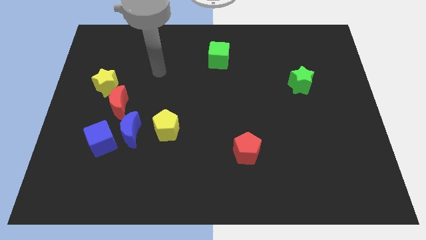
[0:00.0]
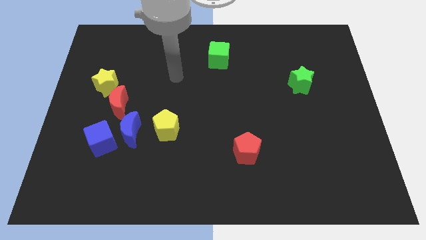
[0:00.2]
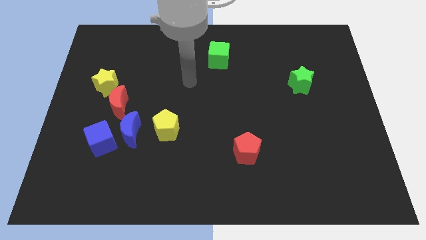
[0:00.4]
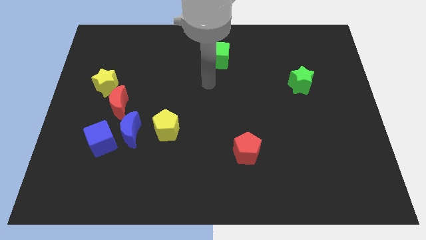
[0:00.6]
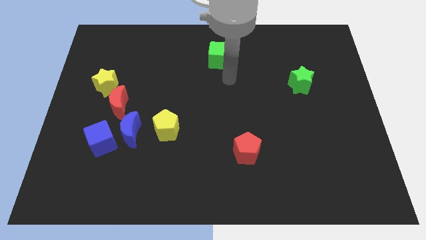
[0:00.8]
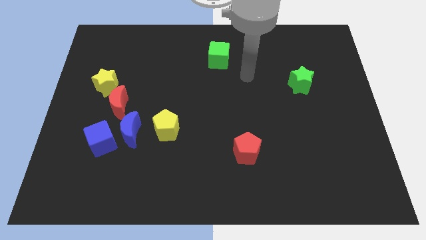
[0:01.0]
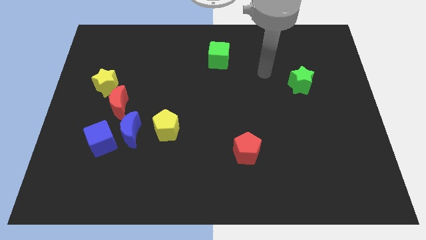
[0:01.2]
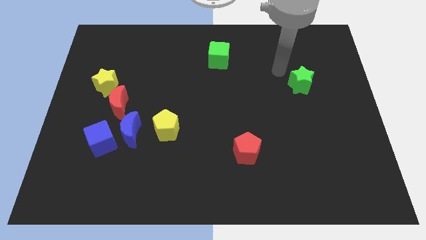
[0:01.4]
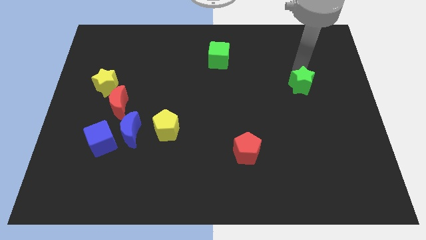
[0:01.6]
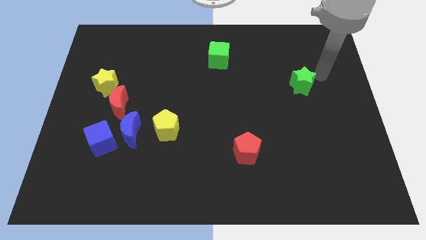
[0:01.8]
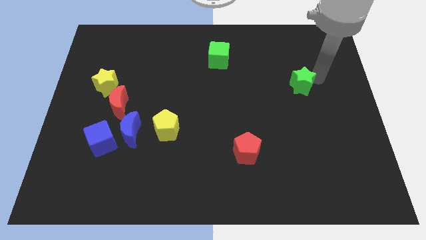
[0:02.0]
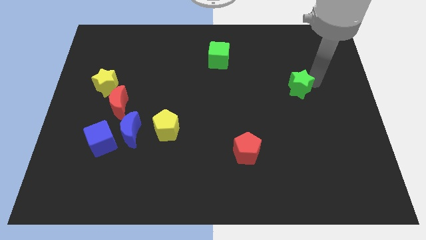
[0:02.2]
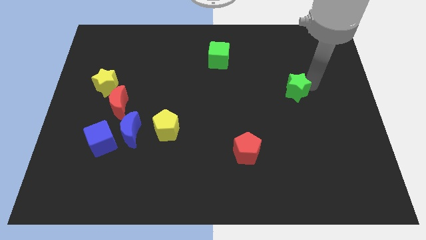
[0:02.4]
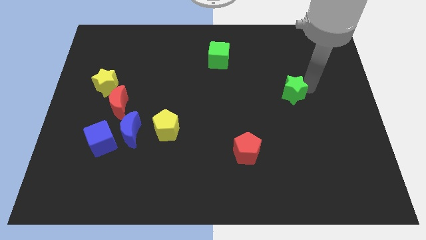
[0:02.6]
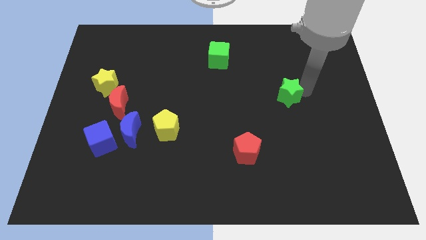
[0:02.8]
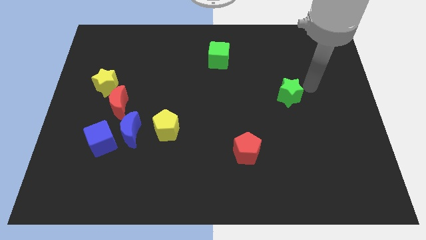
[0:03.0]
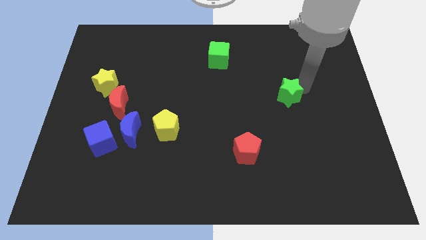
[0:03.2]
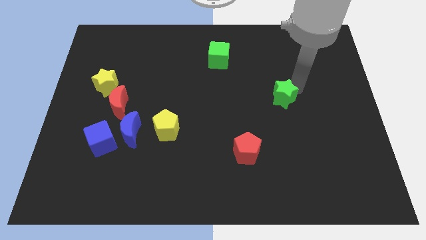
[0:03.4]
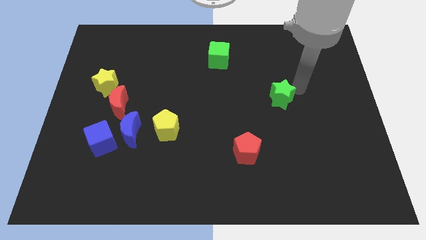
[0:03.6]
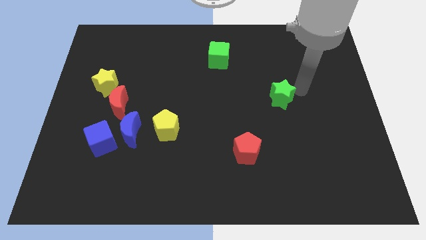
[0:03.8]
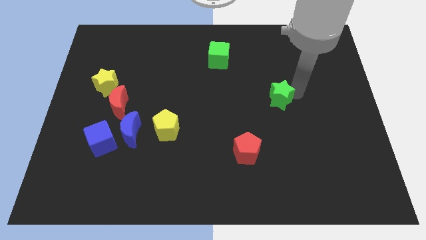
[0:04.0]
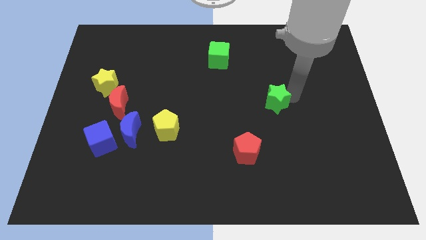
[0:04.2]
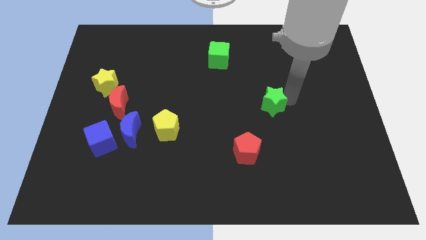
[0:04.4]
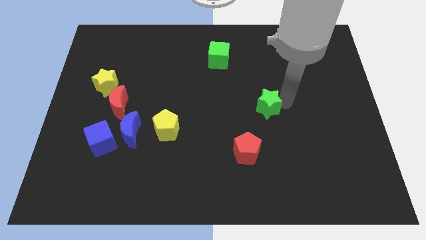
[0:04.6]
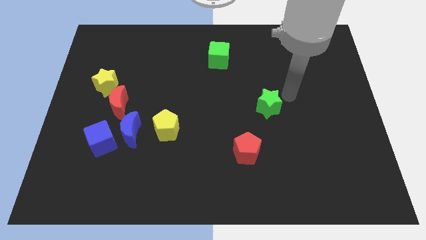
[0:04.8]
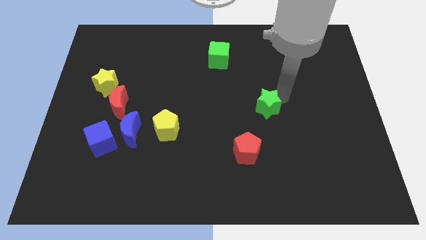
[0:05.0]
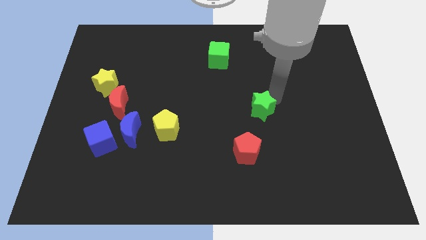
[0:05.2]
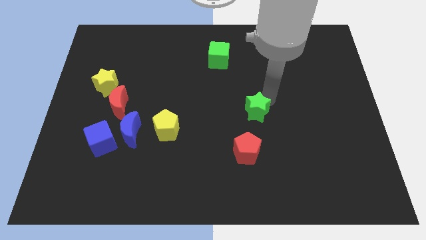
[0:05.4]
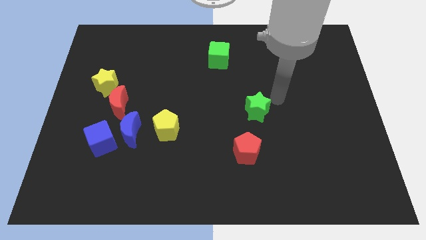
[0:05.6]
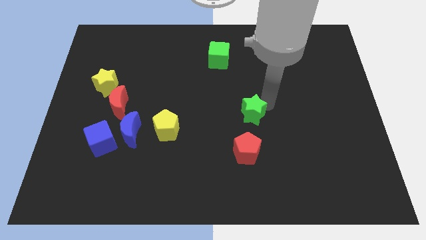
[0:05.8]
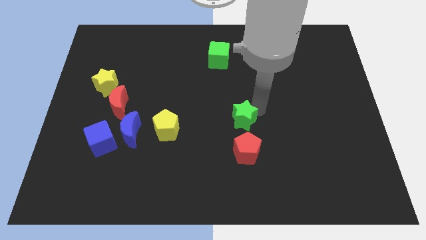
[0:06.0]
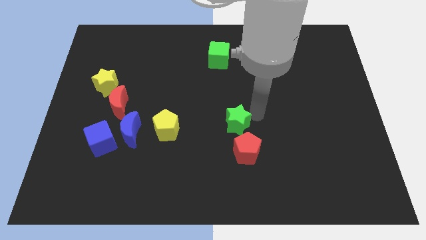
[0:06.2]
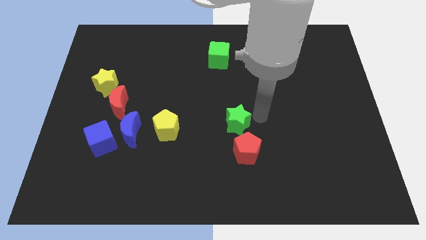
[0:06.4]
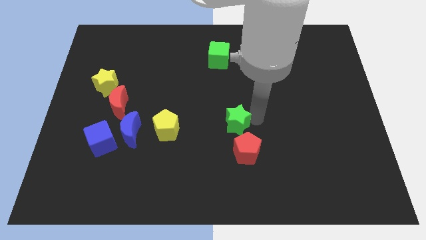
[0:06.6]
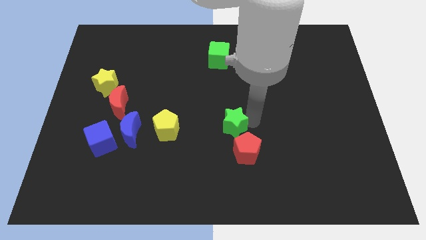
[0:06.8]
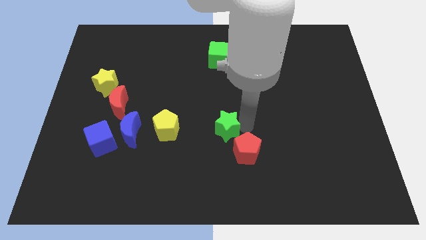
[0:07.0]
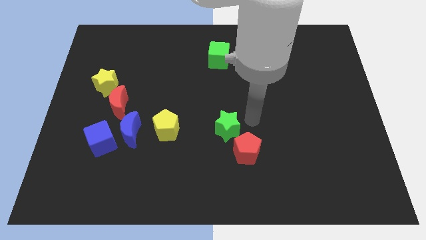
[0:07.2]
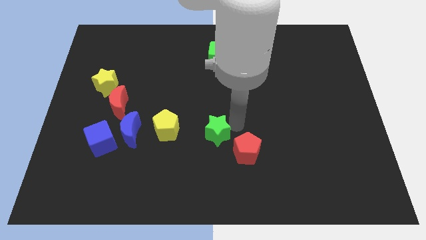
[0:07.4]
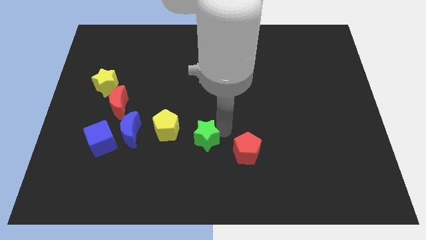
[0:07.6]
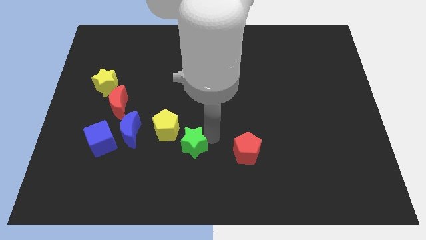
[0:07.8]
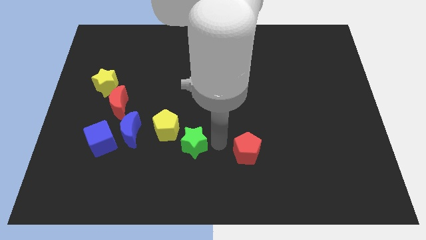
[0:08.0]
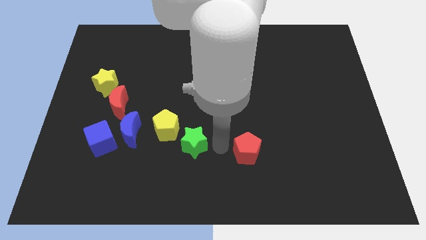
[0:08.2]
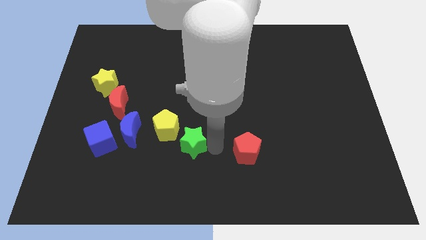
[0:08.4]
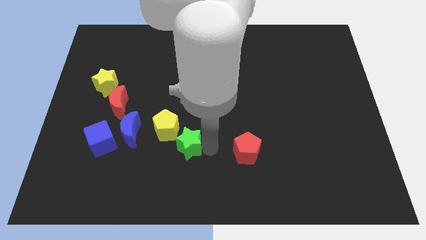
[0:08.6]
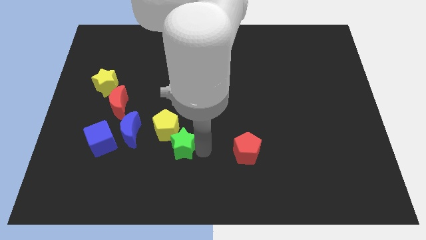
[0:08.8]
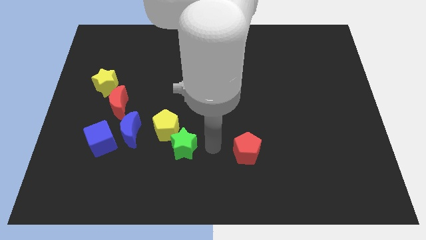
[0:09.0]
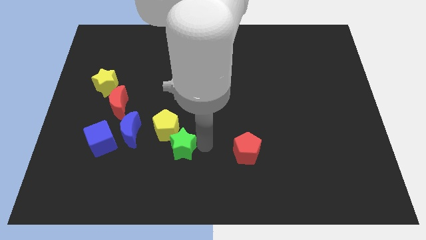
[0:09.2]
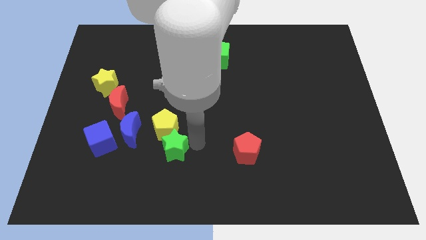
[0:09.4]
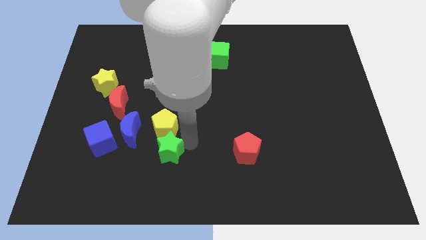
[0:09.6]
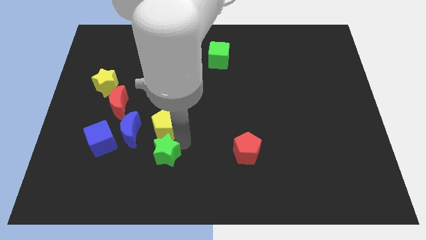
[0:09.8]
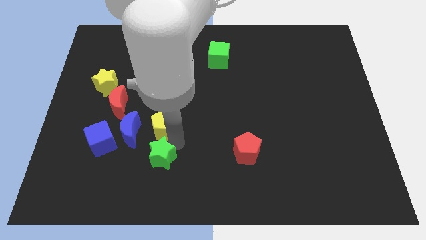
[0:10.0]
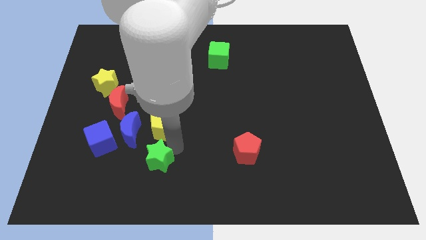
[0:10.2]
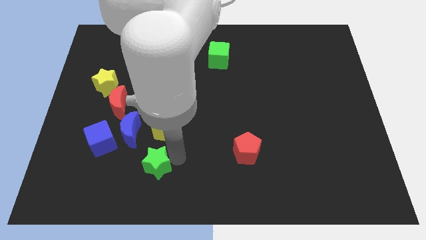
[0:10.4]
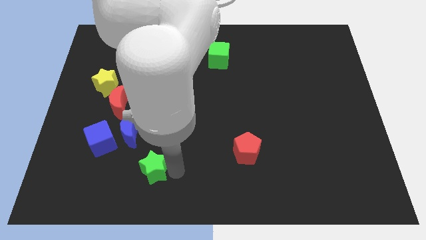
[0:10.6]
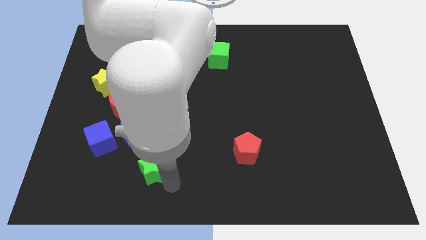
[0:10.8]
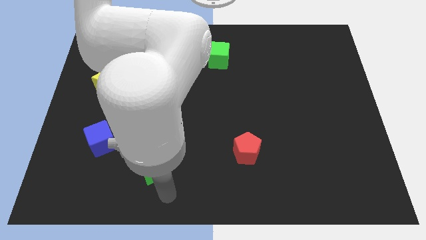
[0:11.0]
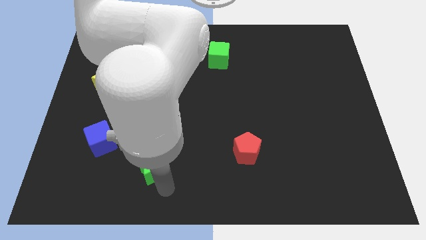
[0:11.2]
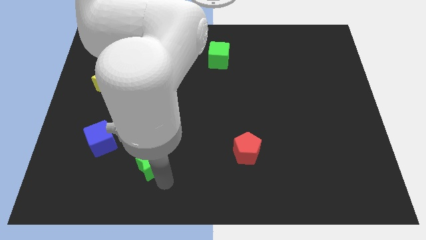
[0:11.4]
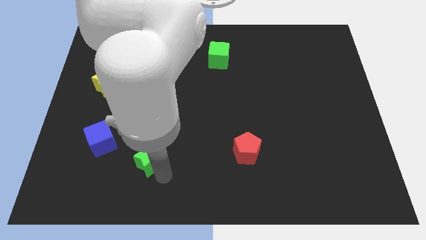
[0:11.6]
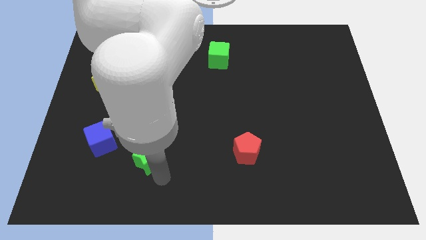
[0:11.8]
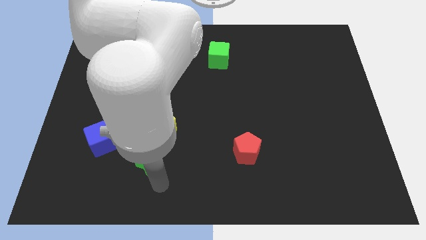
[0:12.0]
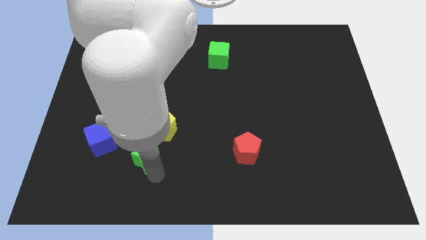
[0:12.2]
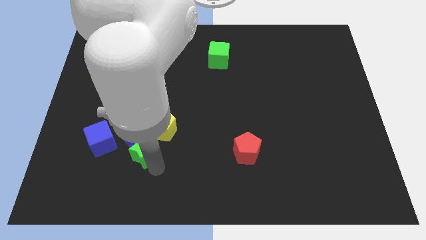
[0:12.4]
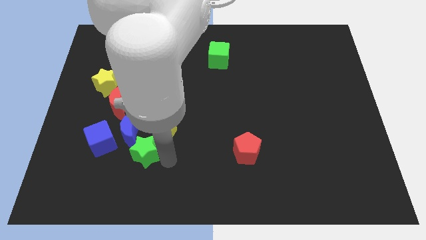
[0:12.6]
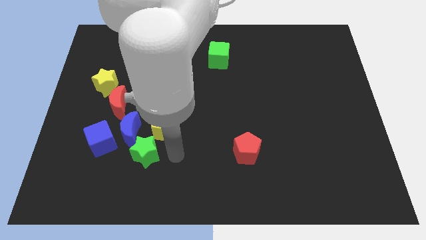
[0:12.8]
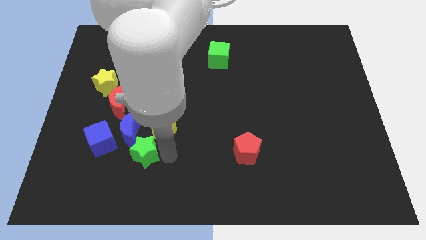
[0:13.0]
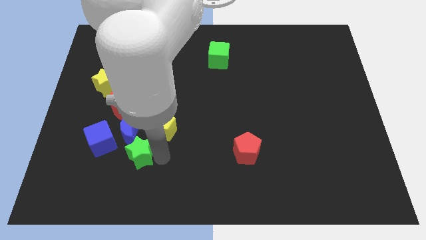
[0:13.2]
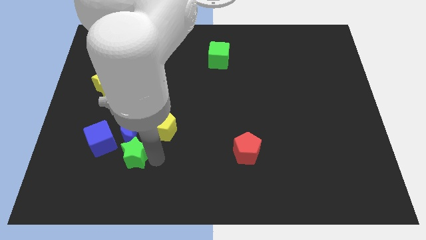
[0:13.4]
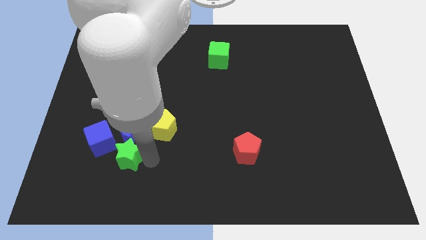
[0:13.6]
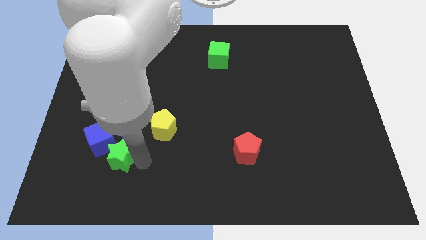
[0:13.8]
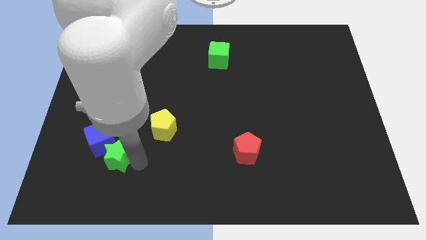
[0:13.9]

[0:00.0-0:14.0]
put the green star towards the blue cube

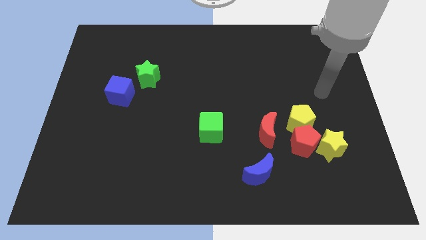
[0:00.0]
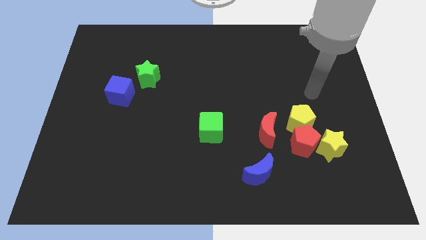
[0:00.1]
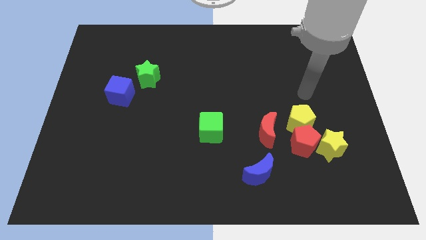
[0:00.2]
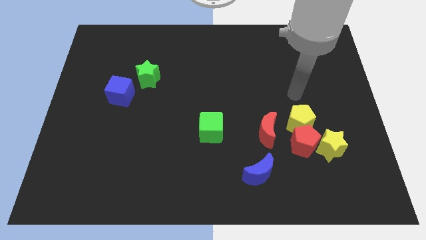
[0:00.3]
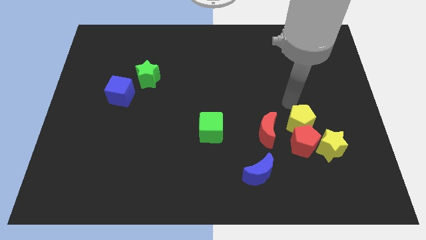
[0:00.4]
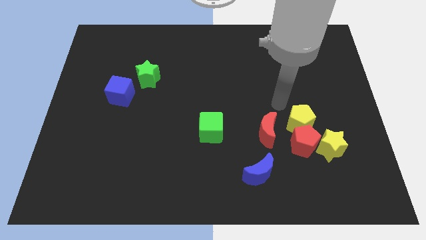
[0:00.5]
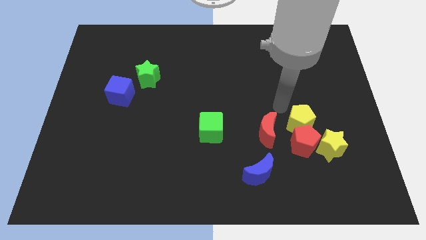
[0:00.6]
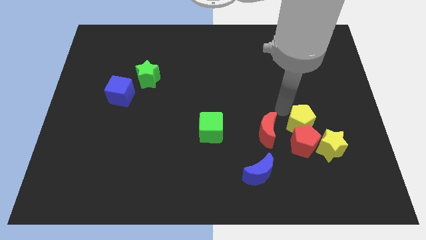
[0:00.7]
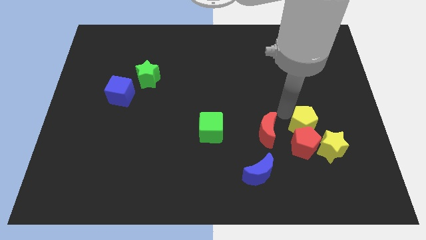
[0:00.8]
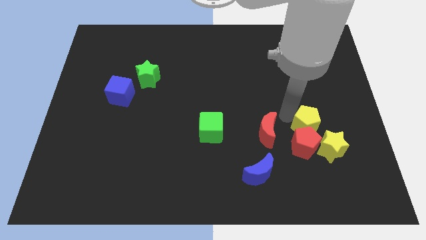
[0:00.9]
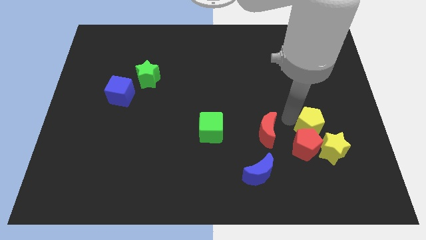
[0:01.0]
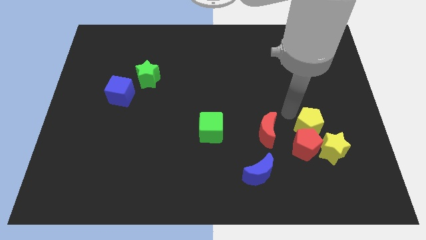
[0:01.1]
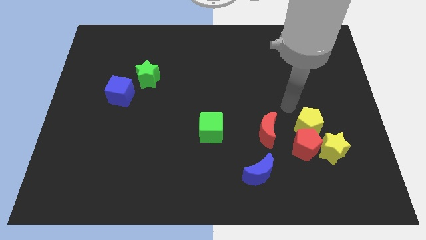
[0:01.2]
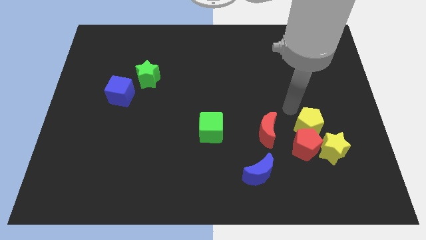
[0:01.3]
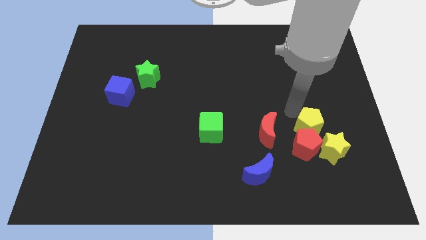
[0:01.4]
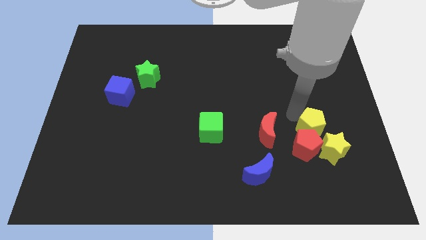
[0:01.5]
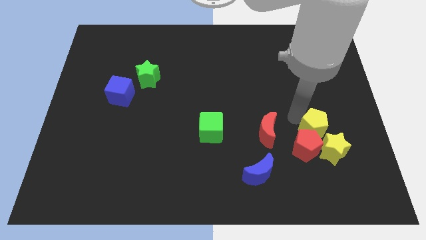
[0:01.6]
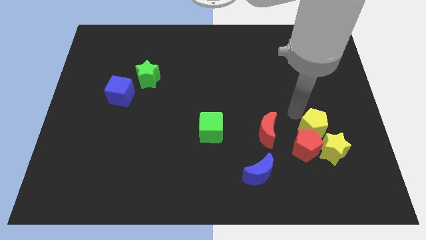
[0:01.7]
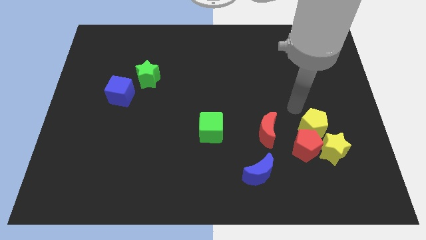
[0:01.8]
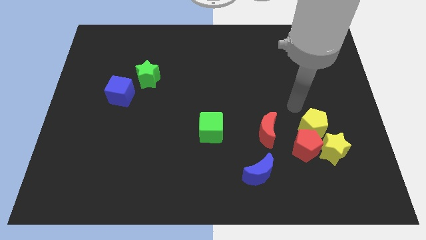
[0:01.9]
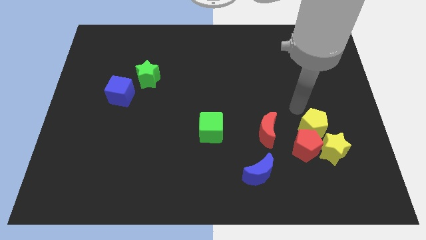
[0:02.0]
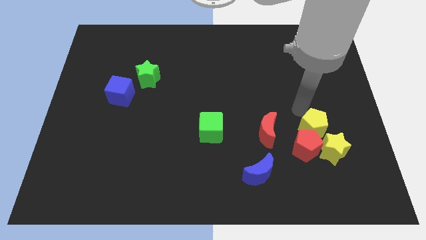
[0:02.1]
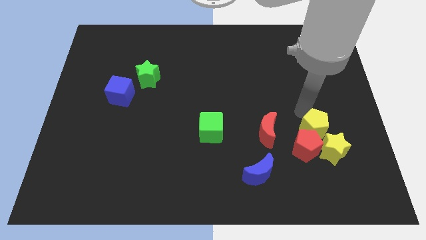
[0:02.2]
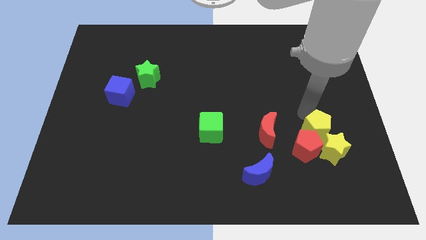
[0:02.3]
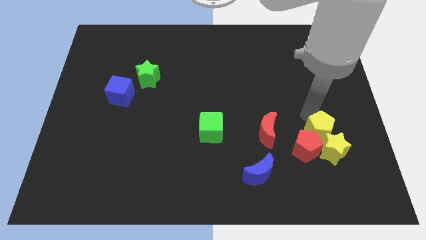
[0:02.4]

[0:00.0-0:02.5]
move the yellow pentagon to the yellow star
